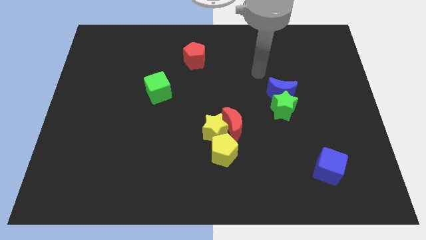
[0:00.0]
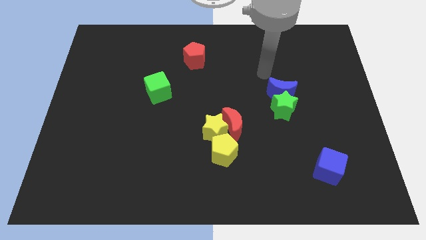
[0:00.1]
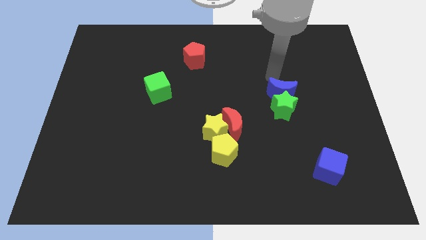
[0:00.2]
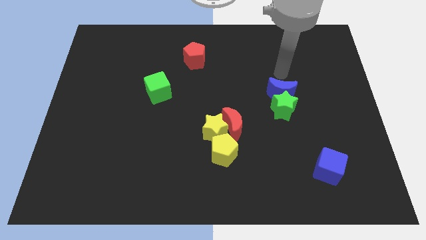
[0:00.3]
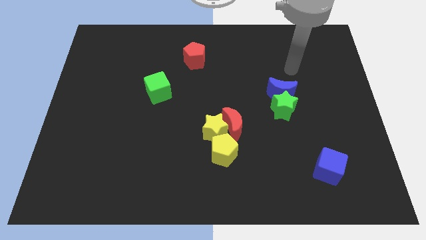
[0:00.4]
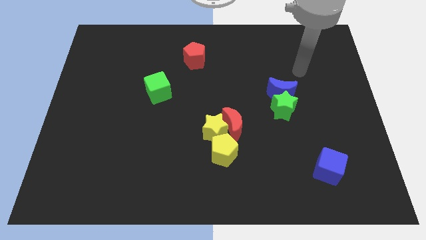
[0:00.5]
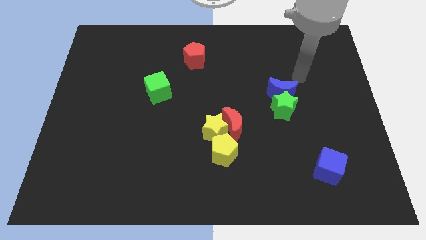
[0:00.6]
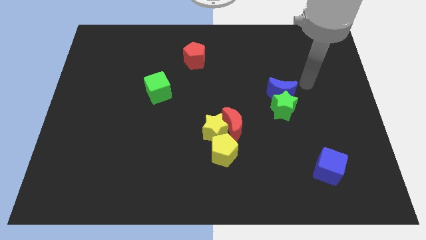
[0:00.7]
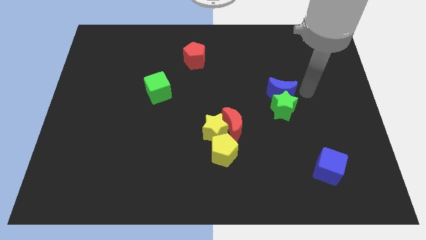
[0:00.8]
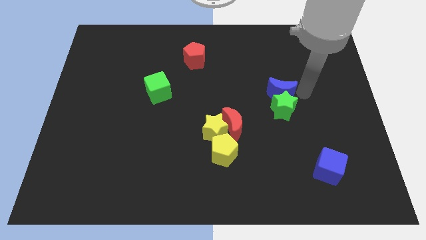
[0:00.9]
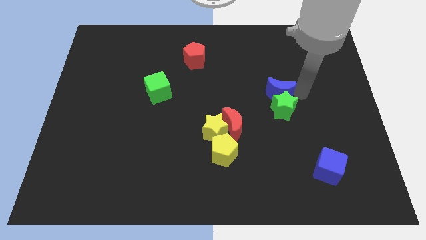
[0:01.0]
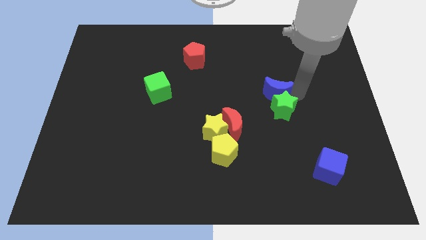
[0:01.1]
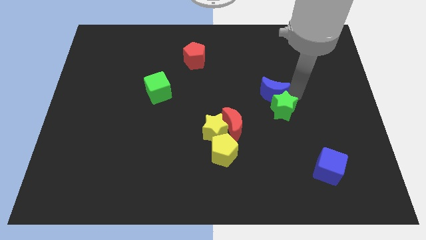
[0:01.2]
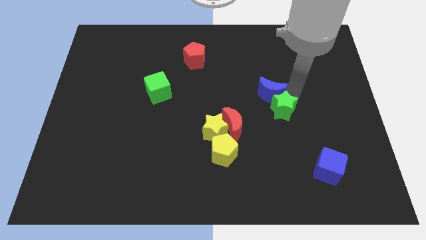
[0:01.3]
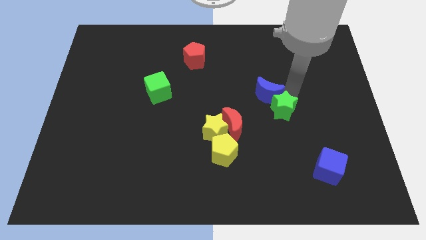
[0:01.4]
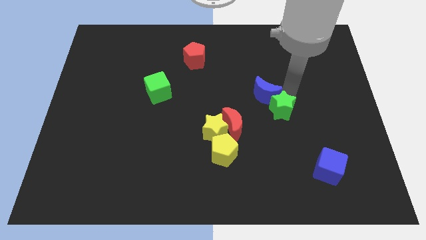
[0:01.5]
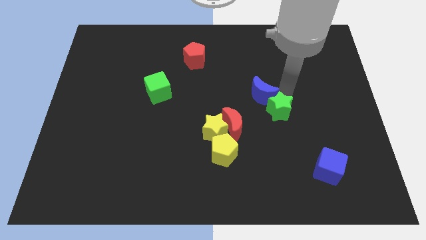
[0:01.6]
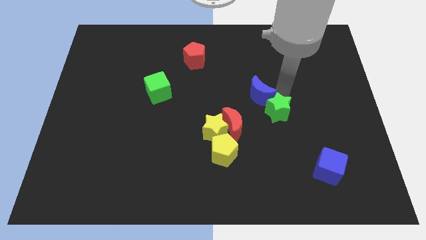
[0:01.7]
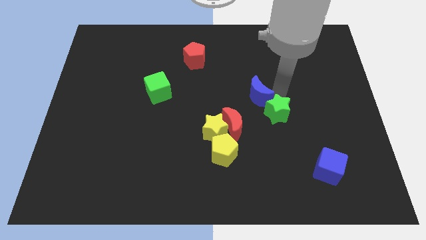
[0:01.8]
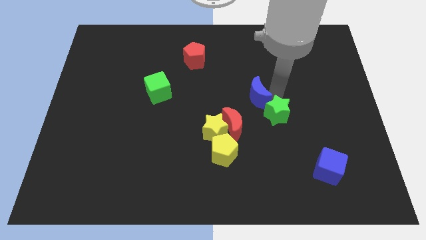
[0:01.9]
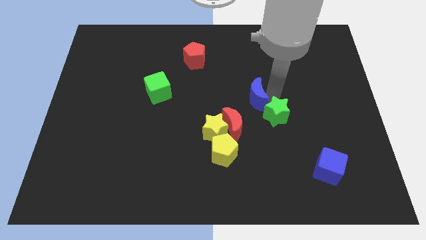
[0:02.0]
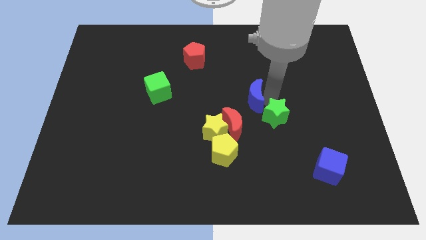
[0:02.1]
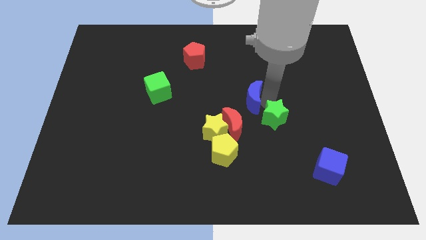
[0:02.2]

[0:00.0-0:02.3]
move the blue moon a little bit left

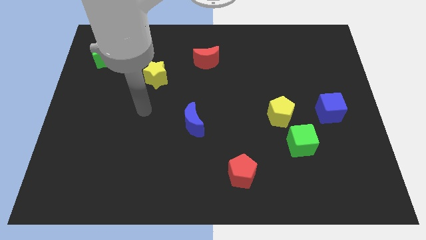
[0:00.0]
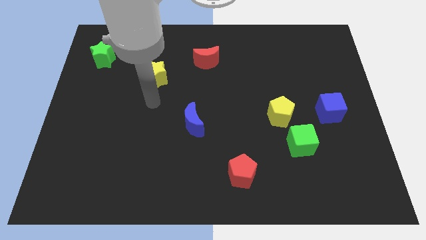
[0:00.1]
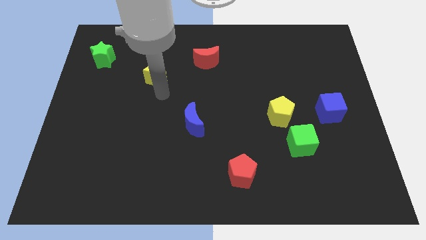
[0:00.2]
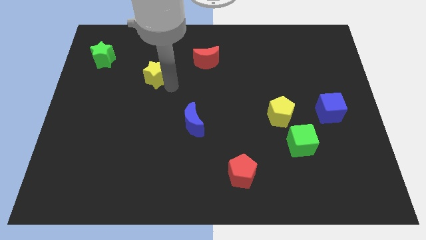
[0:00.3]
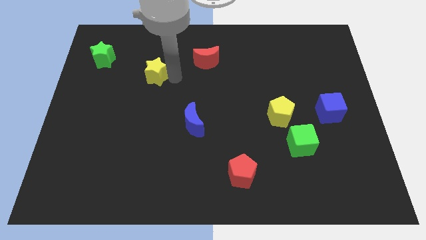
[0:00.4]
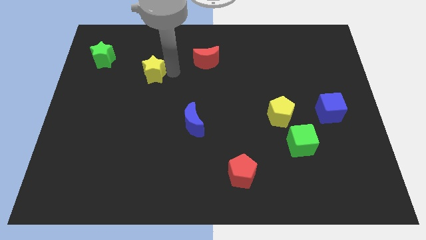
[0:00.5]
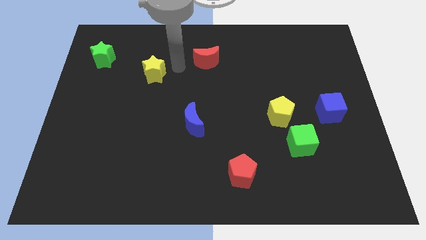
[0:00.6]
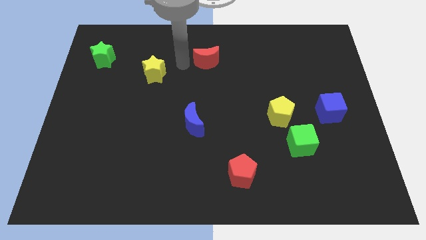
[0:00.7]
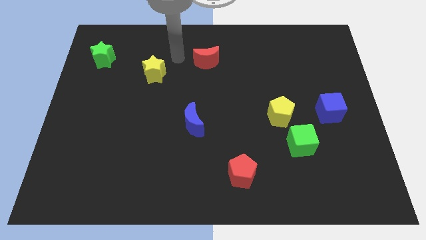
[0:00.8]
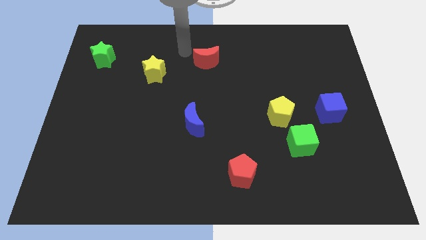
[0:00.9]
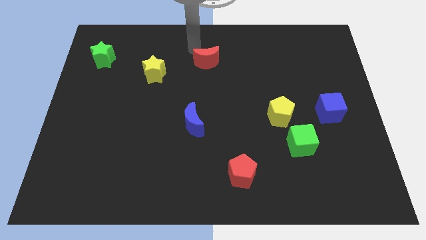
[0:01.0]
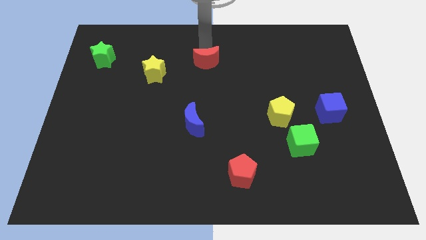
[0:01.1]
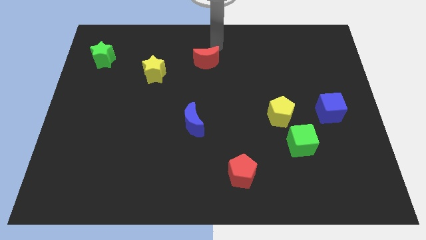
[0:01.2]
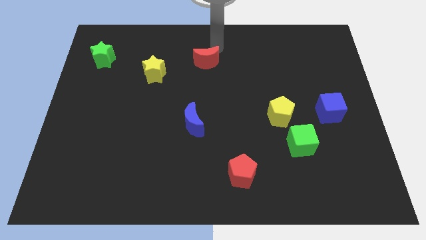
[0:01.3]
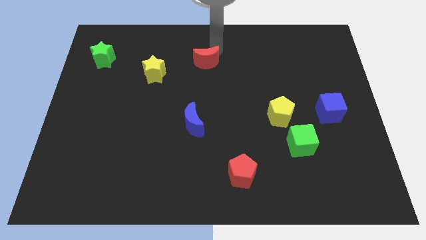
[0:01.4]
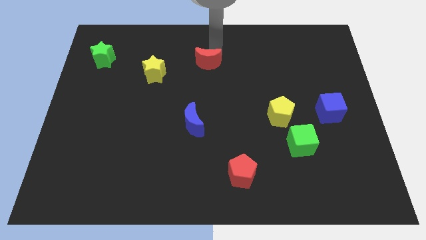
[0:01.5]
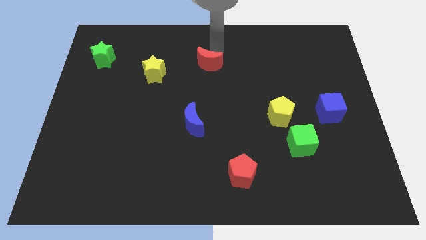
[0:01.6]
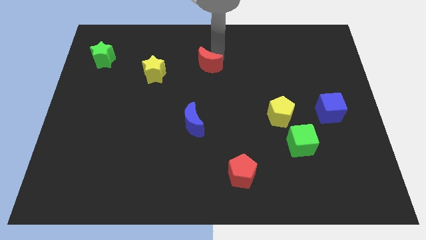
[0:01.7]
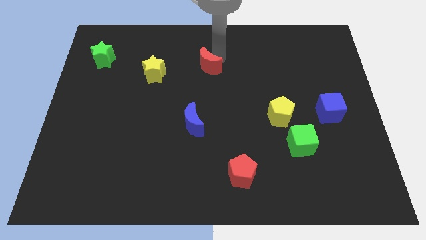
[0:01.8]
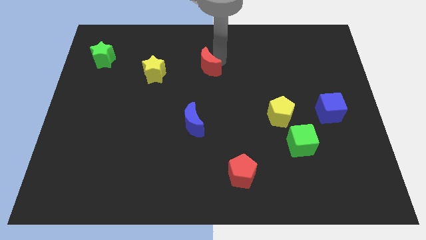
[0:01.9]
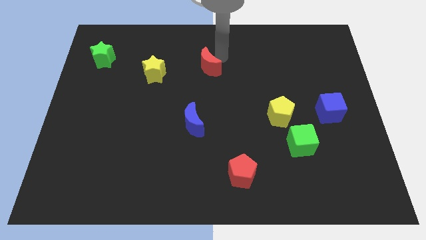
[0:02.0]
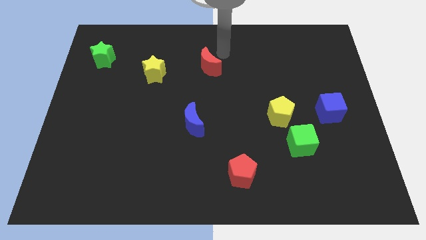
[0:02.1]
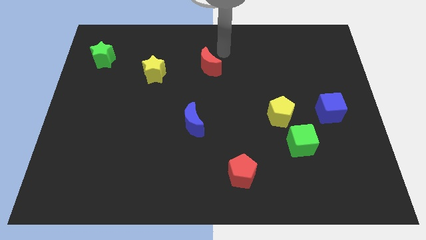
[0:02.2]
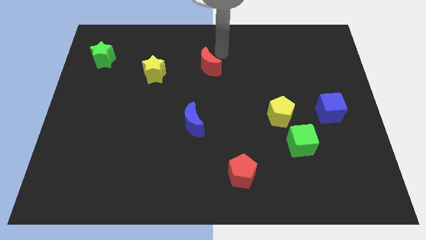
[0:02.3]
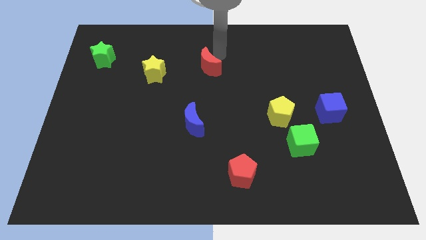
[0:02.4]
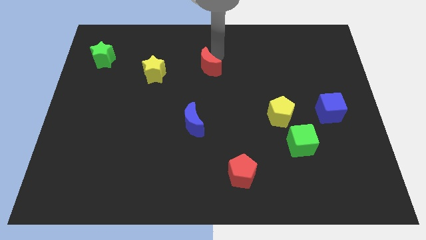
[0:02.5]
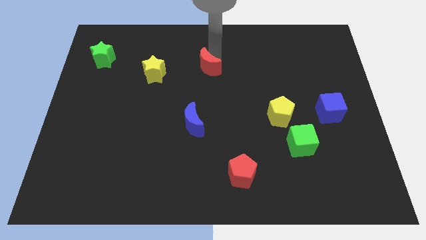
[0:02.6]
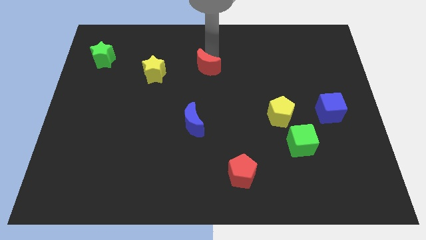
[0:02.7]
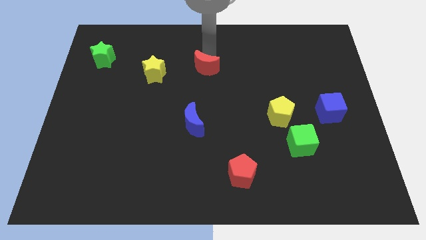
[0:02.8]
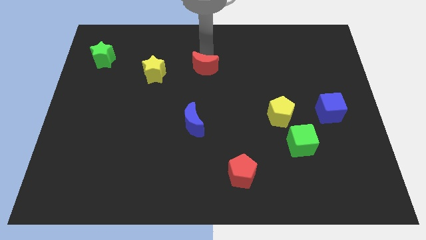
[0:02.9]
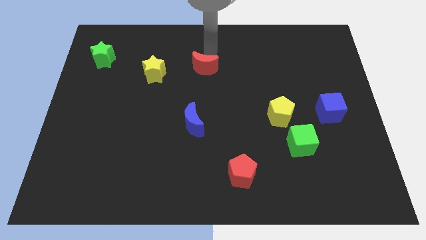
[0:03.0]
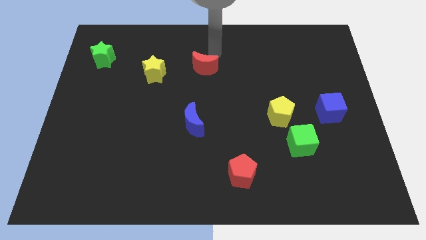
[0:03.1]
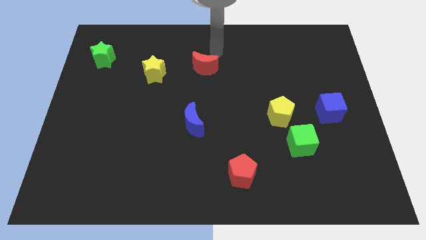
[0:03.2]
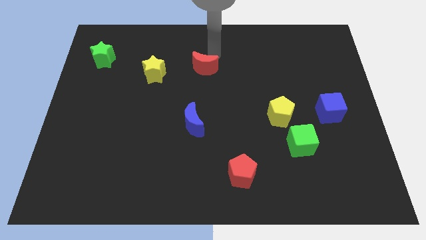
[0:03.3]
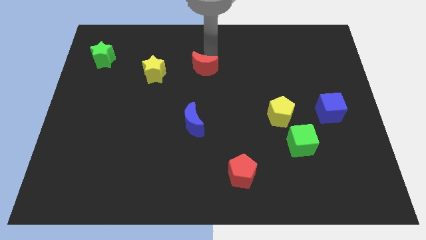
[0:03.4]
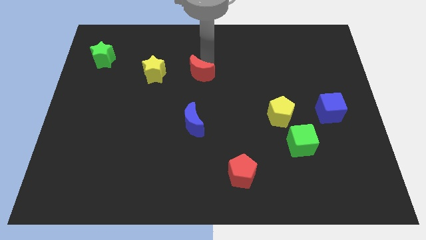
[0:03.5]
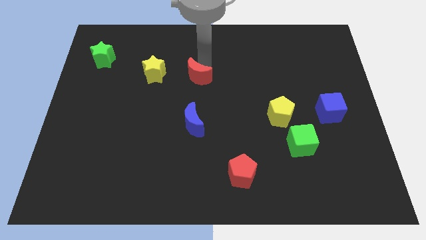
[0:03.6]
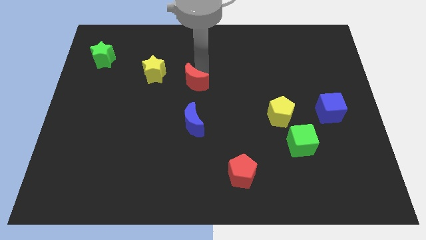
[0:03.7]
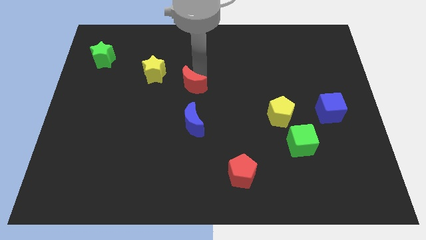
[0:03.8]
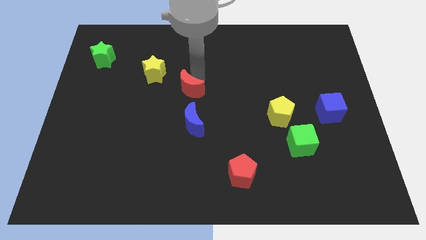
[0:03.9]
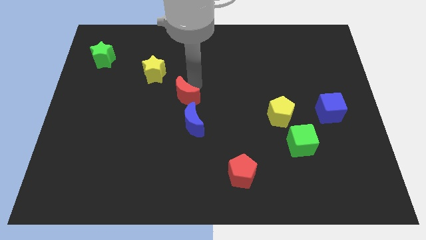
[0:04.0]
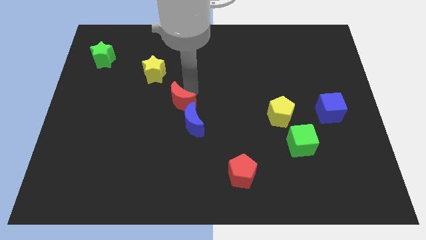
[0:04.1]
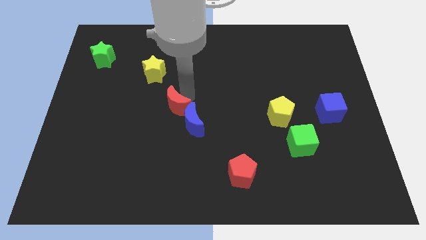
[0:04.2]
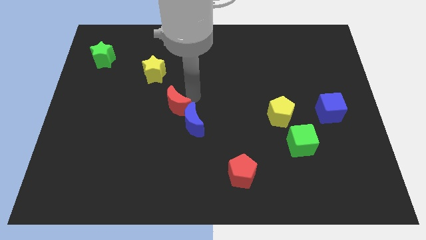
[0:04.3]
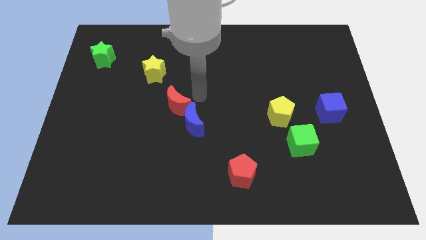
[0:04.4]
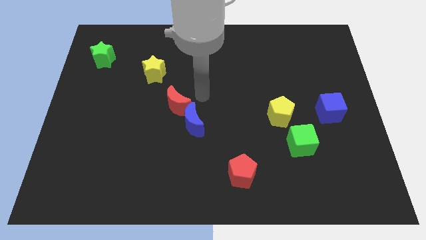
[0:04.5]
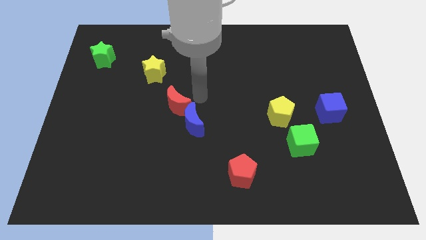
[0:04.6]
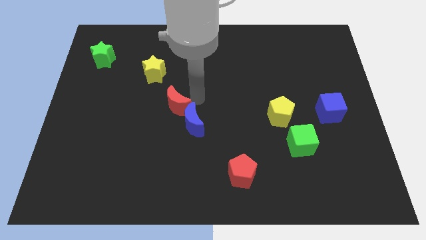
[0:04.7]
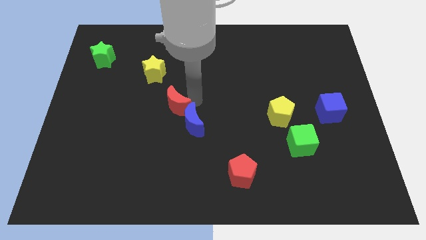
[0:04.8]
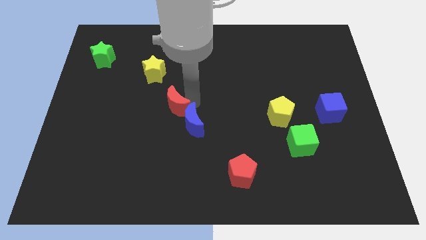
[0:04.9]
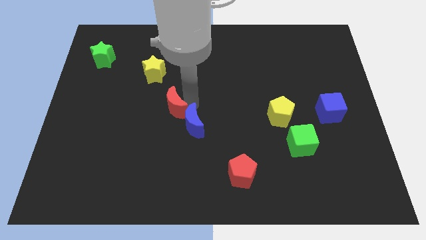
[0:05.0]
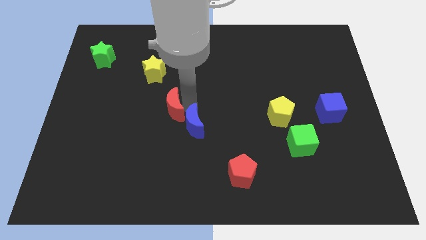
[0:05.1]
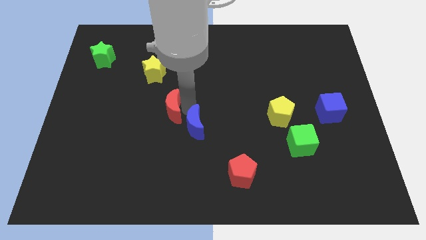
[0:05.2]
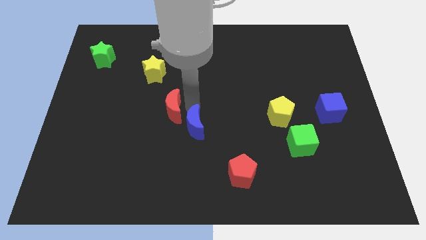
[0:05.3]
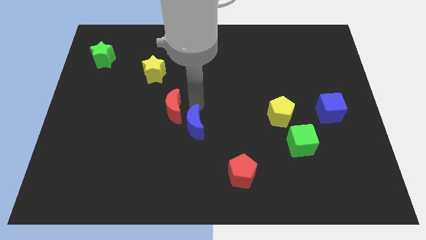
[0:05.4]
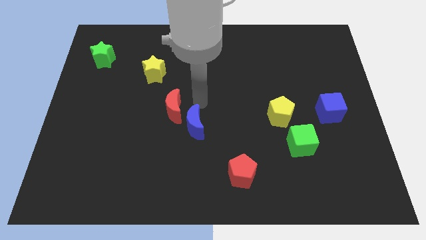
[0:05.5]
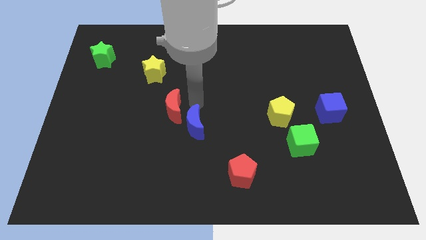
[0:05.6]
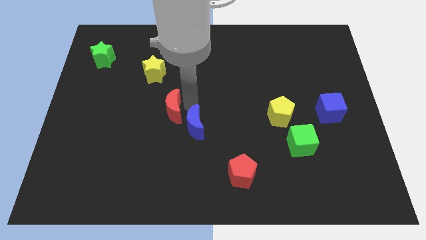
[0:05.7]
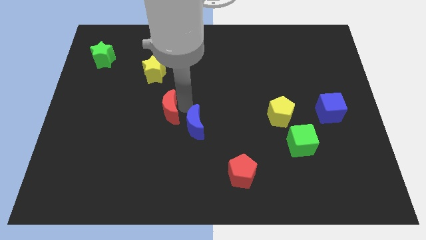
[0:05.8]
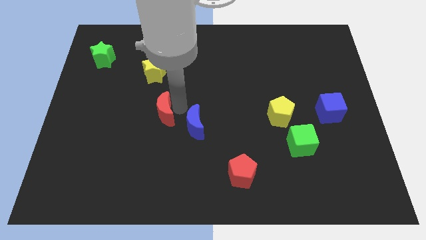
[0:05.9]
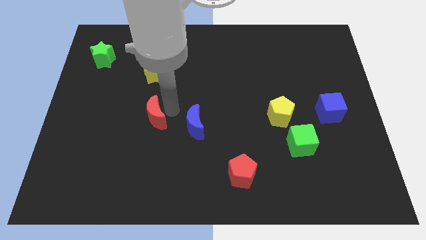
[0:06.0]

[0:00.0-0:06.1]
move the red moon downwards and to the left diagonally

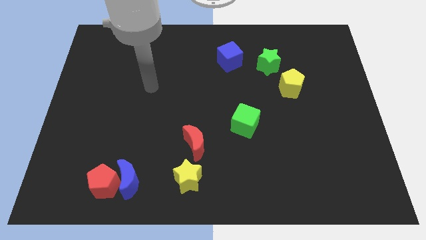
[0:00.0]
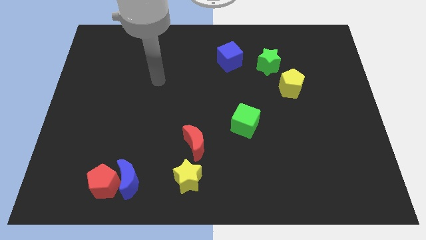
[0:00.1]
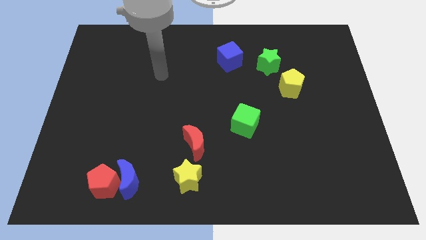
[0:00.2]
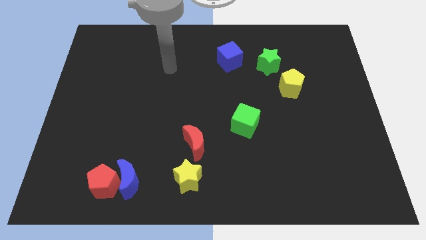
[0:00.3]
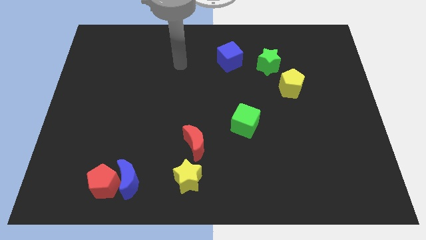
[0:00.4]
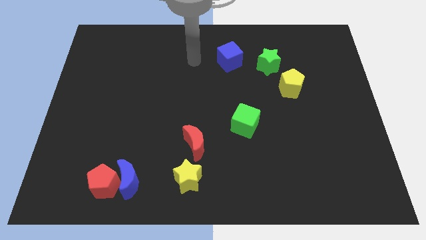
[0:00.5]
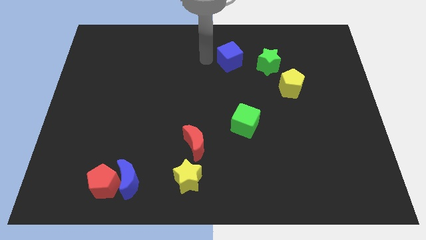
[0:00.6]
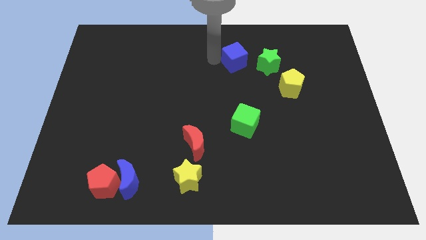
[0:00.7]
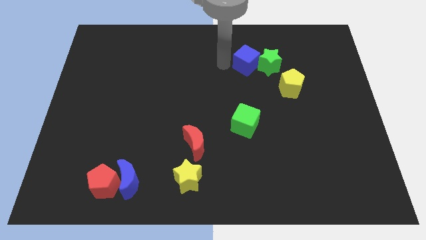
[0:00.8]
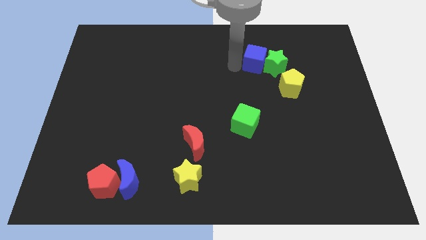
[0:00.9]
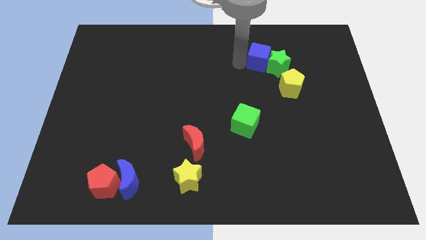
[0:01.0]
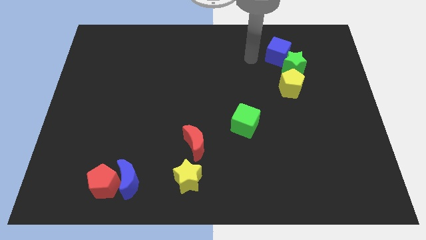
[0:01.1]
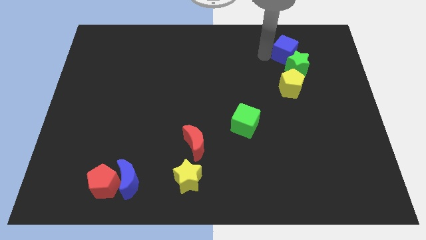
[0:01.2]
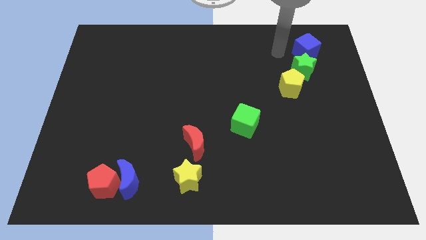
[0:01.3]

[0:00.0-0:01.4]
push the green star slightly diagonally down and to the right
